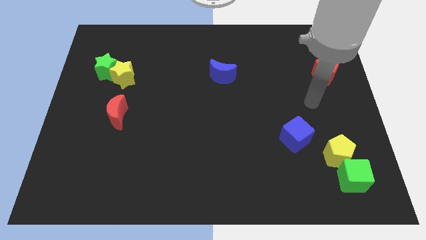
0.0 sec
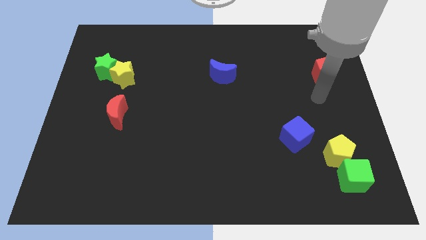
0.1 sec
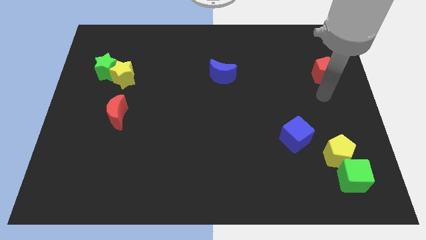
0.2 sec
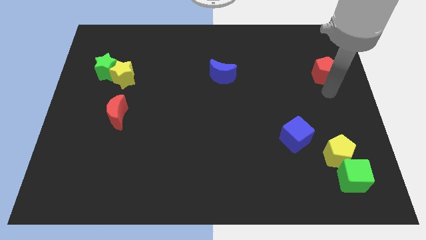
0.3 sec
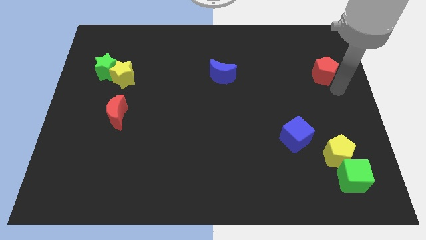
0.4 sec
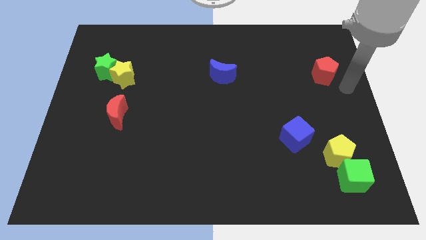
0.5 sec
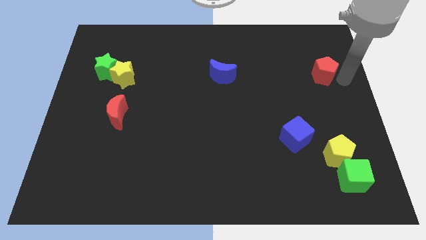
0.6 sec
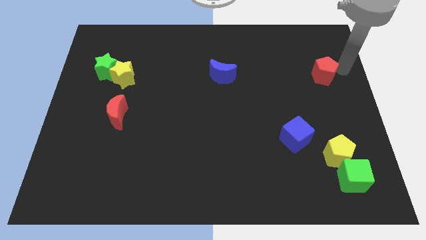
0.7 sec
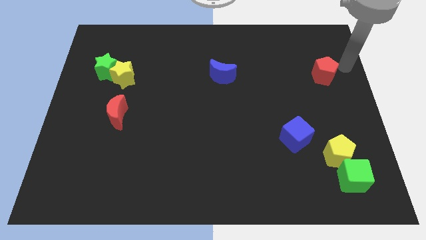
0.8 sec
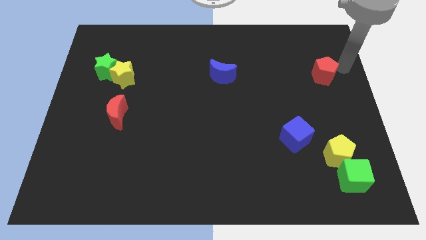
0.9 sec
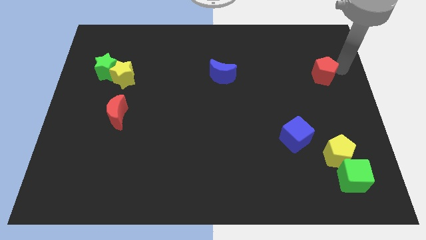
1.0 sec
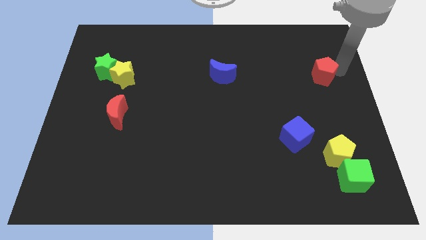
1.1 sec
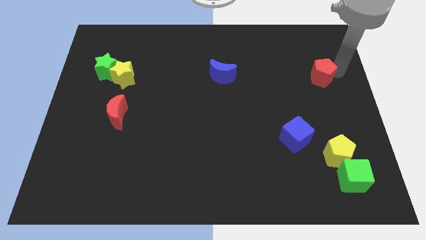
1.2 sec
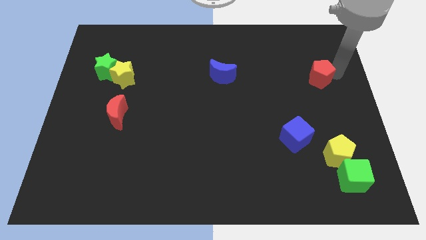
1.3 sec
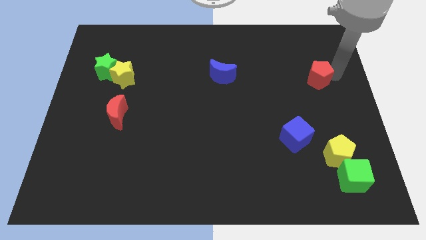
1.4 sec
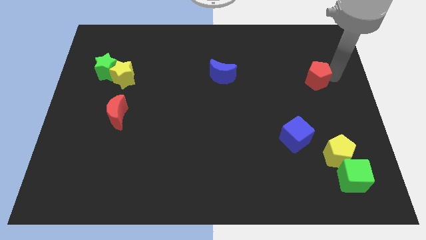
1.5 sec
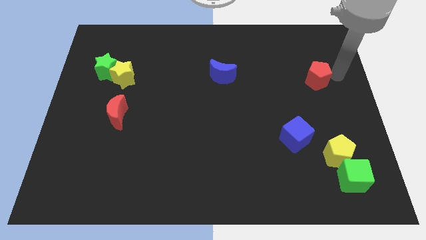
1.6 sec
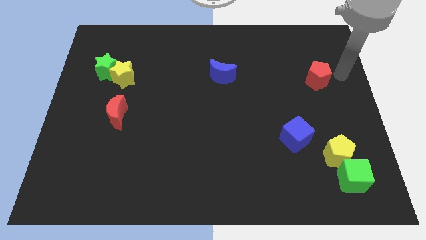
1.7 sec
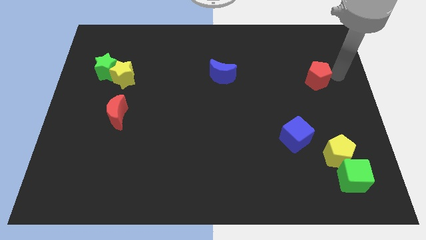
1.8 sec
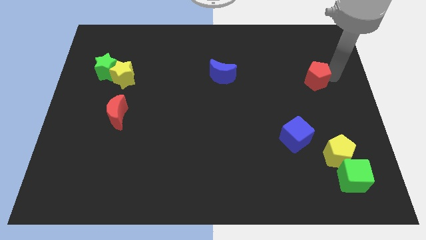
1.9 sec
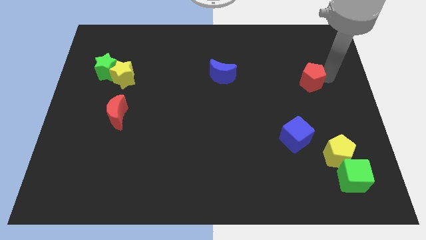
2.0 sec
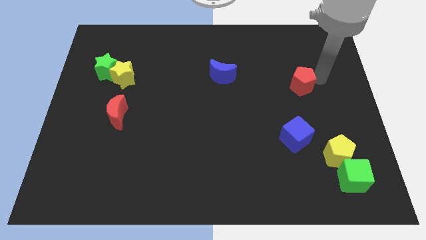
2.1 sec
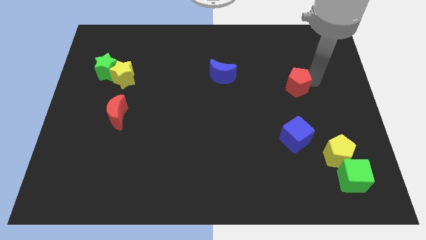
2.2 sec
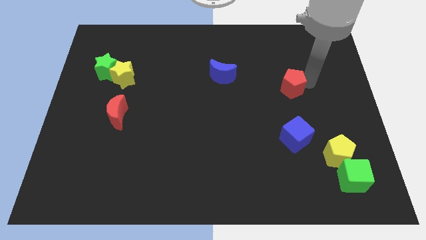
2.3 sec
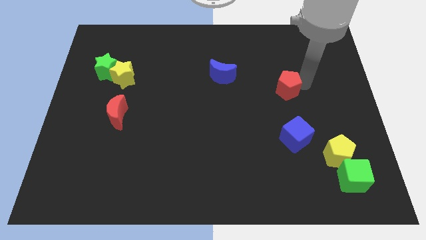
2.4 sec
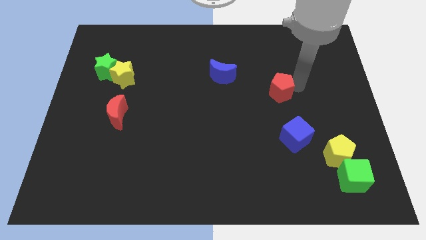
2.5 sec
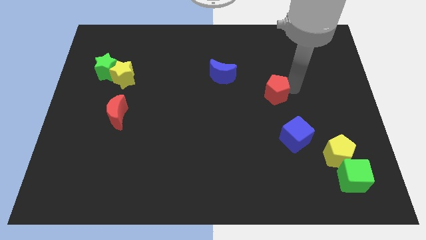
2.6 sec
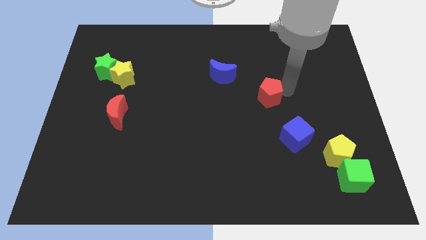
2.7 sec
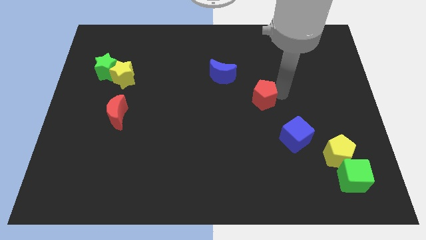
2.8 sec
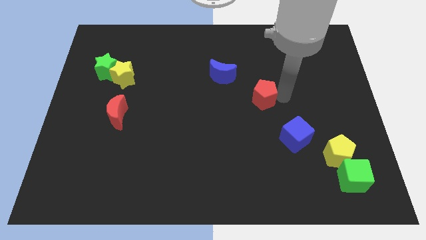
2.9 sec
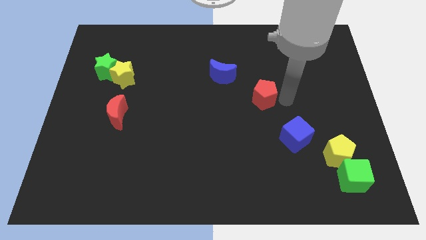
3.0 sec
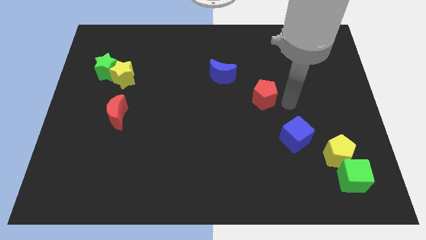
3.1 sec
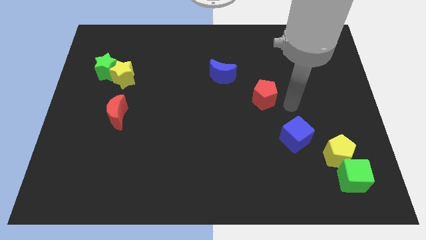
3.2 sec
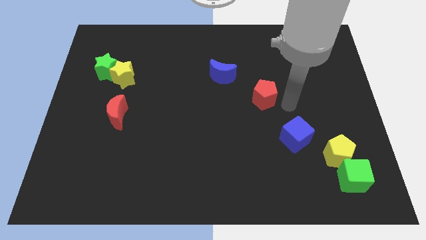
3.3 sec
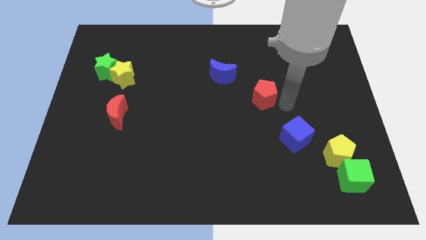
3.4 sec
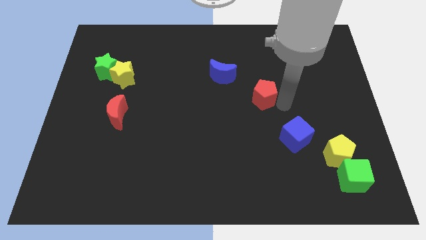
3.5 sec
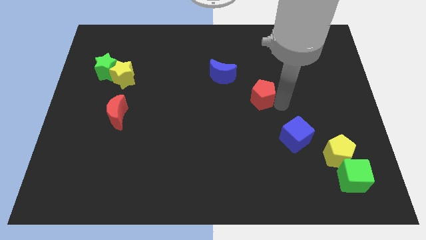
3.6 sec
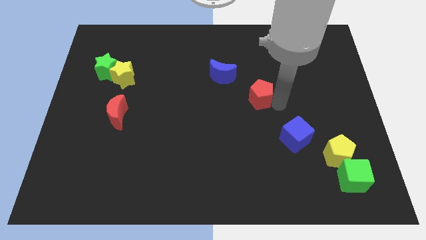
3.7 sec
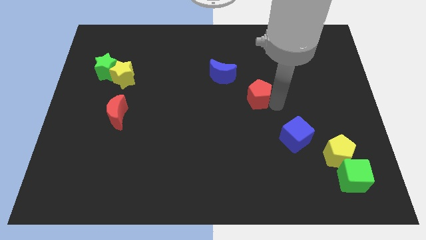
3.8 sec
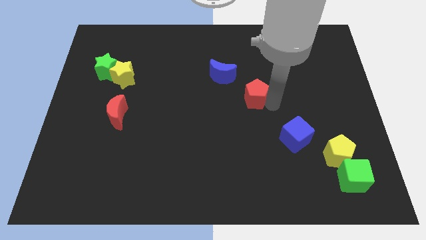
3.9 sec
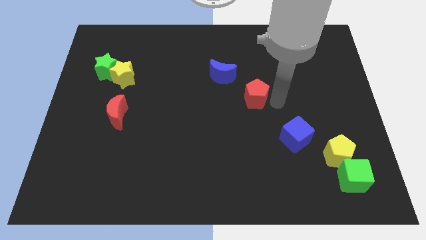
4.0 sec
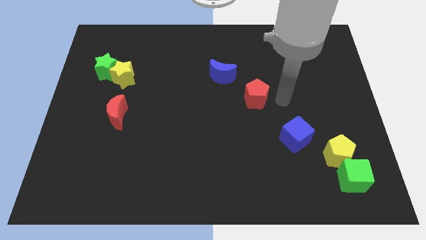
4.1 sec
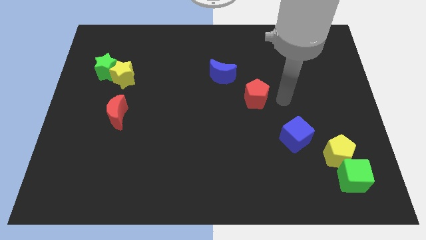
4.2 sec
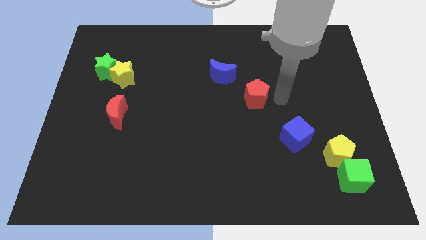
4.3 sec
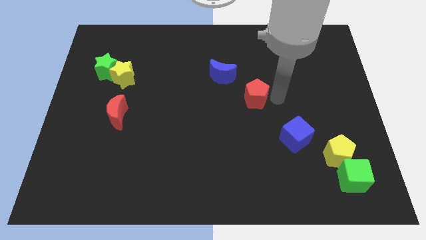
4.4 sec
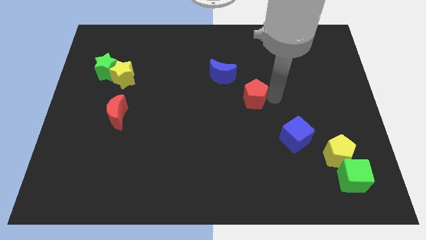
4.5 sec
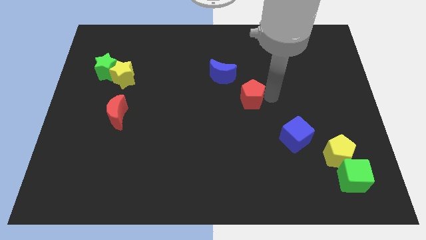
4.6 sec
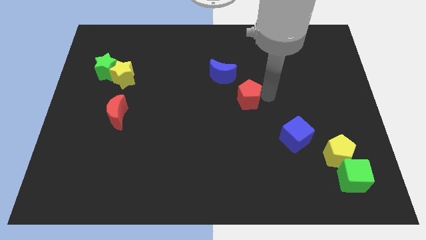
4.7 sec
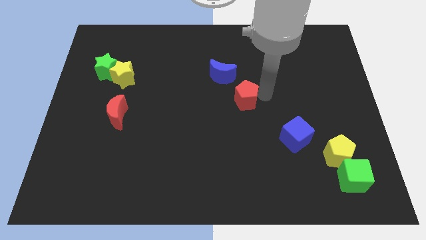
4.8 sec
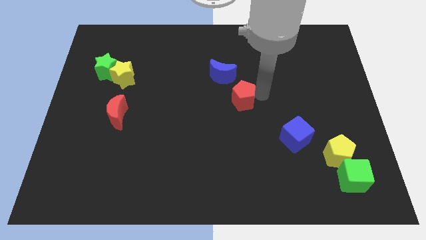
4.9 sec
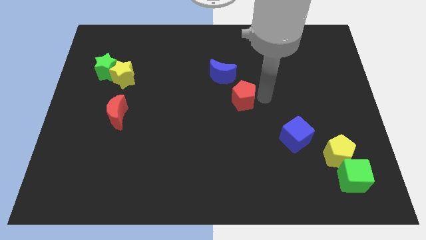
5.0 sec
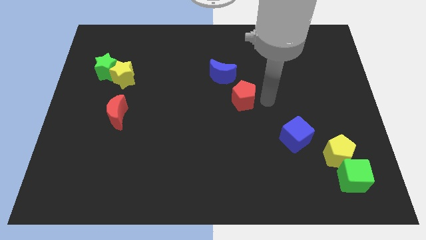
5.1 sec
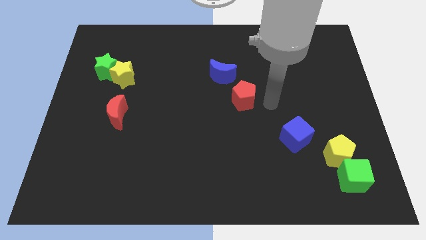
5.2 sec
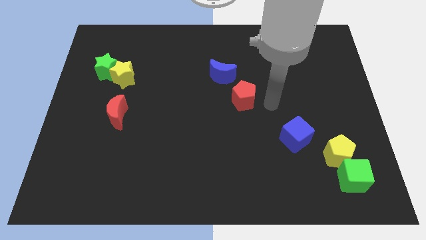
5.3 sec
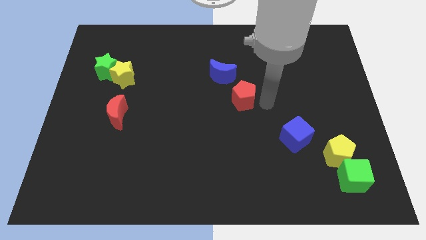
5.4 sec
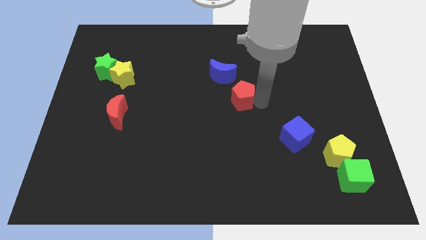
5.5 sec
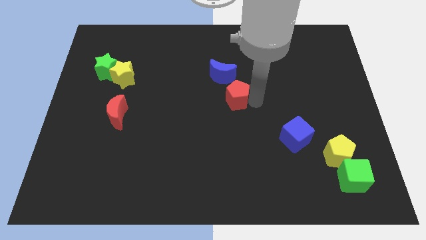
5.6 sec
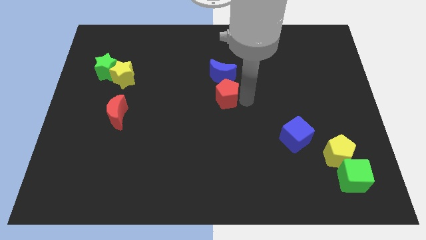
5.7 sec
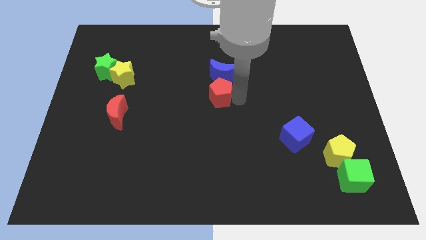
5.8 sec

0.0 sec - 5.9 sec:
push the red pentagon diagonally down and to the left of the blue moon

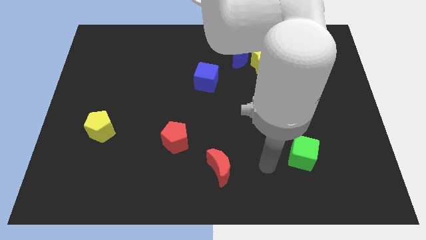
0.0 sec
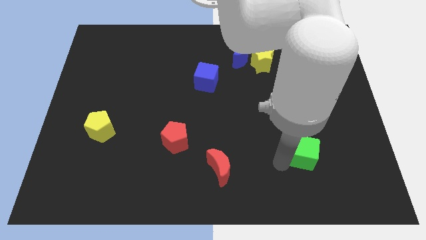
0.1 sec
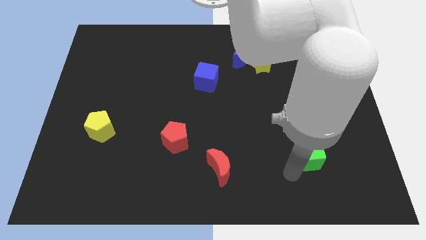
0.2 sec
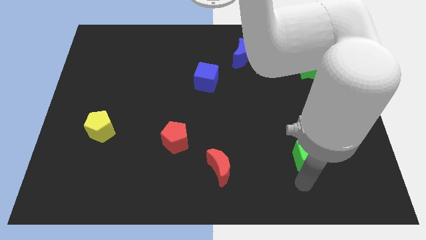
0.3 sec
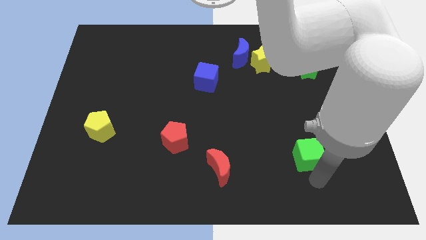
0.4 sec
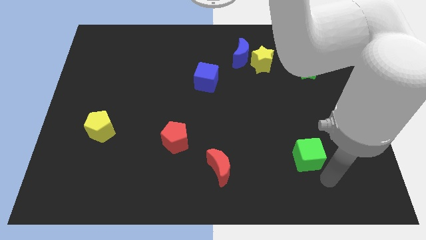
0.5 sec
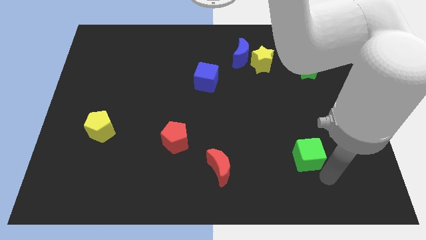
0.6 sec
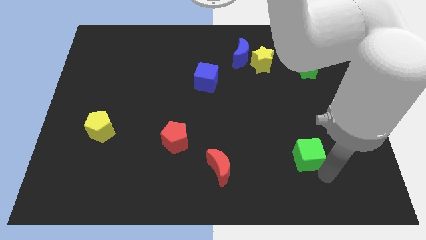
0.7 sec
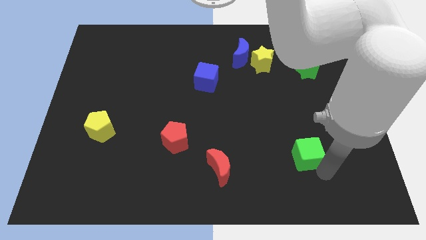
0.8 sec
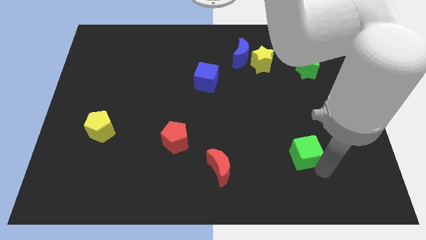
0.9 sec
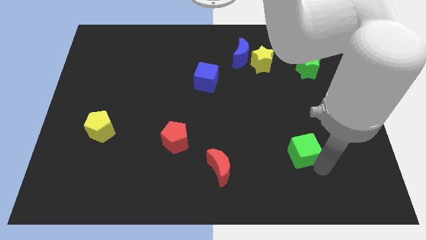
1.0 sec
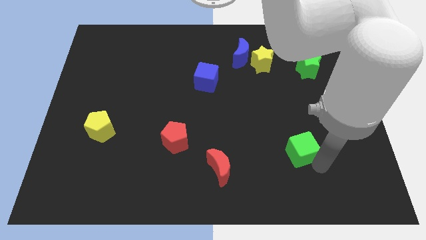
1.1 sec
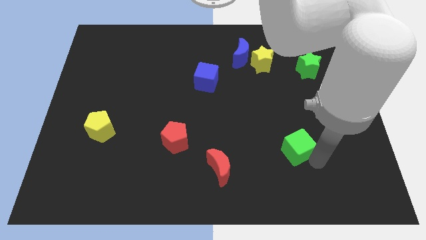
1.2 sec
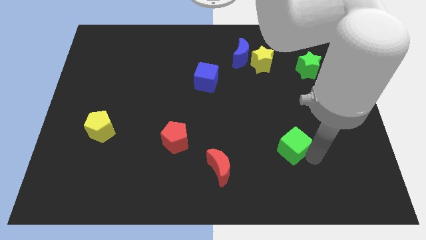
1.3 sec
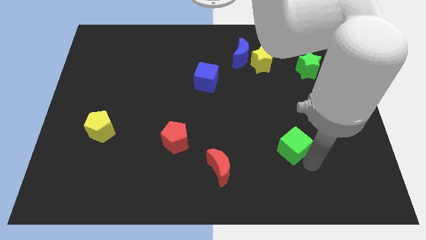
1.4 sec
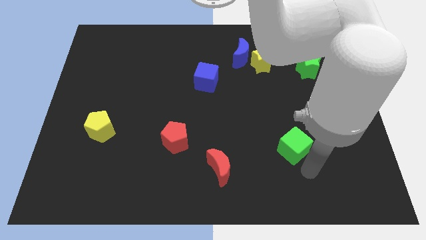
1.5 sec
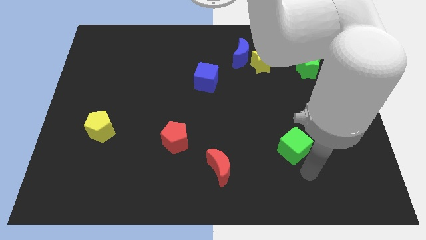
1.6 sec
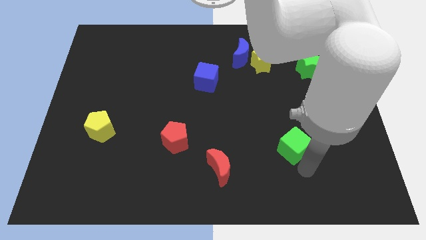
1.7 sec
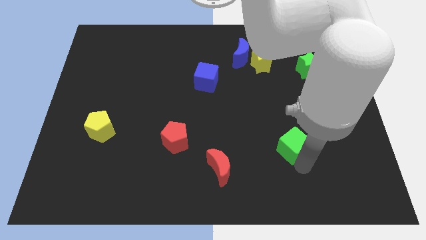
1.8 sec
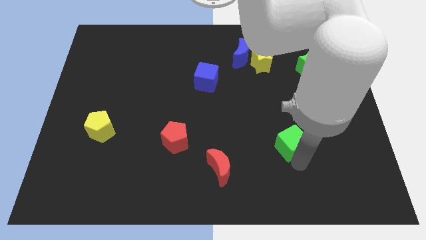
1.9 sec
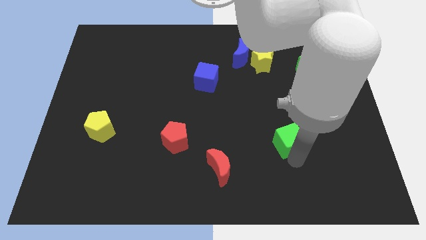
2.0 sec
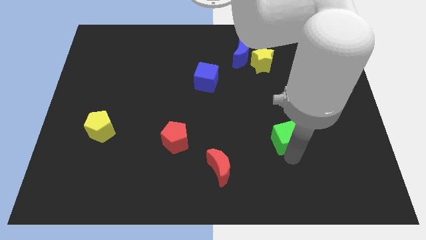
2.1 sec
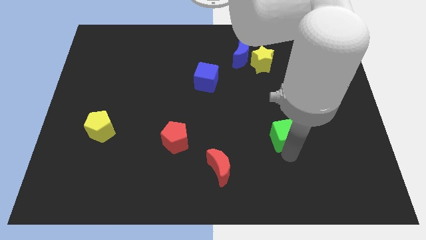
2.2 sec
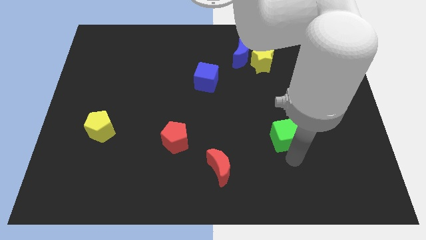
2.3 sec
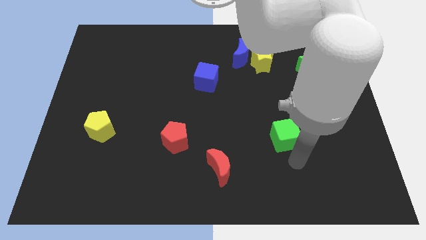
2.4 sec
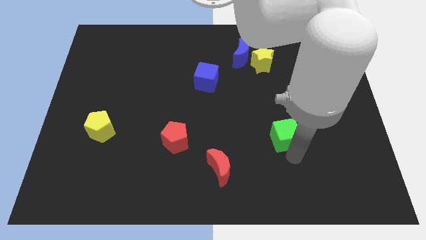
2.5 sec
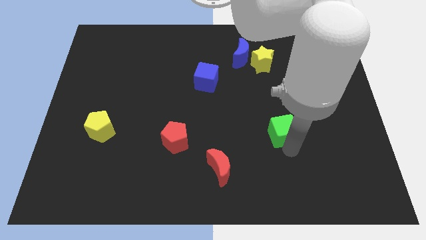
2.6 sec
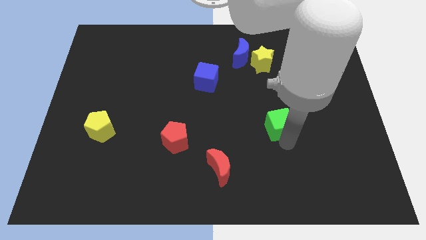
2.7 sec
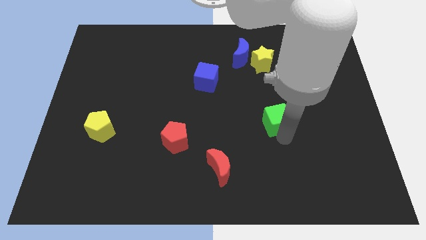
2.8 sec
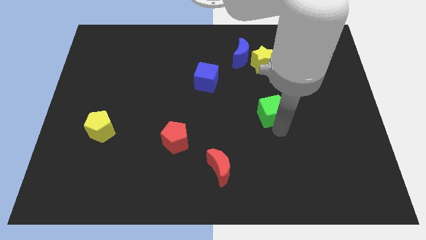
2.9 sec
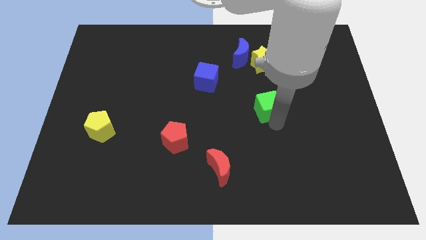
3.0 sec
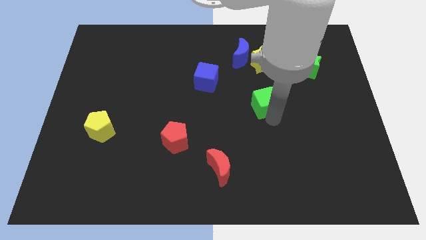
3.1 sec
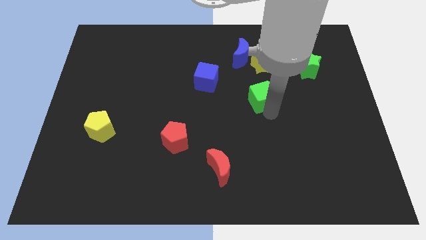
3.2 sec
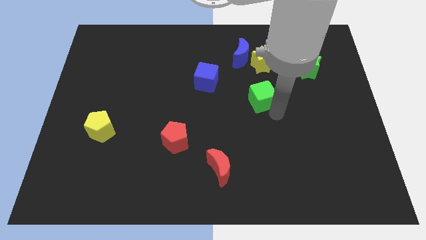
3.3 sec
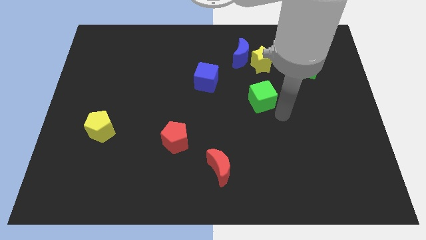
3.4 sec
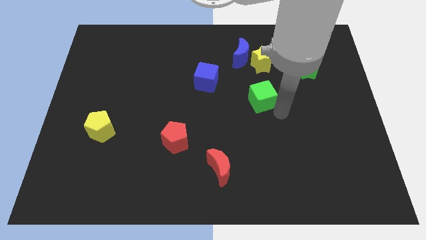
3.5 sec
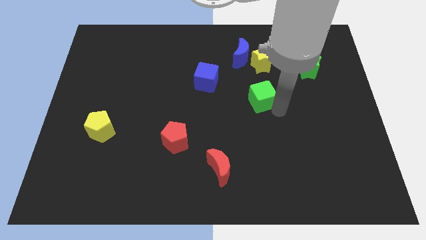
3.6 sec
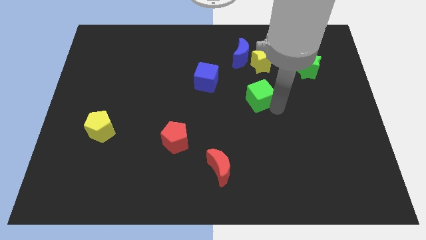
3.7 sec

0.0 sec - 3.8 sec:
push the green cube below the blue moon
